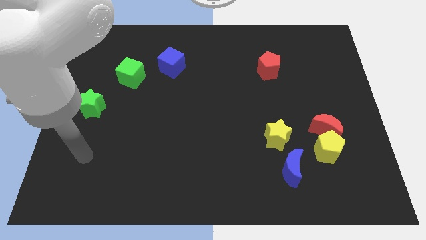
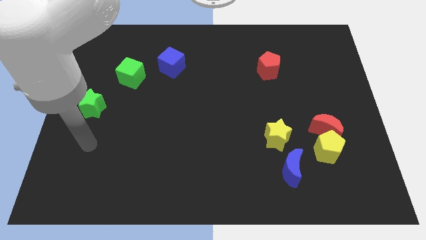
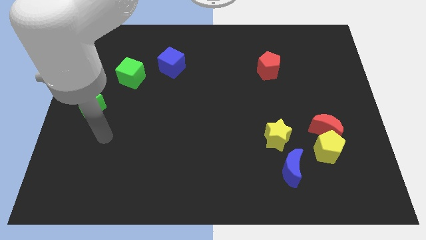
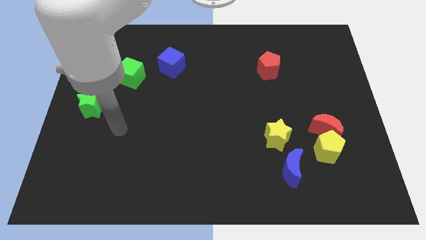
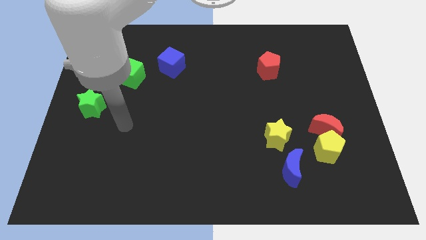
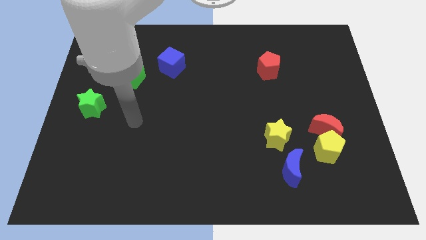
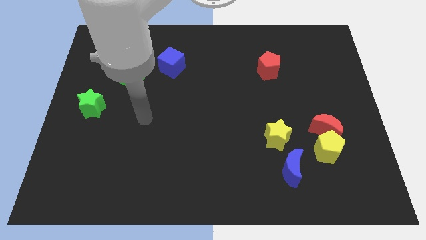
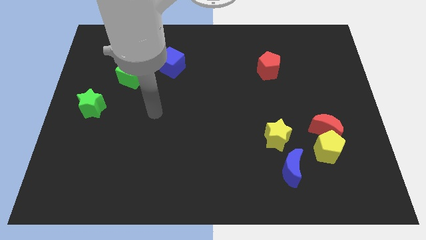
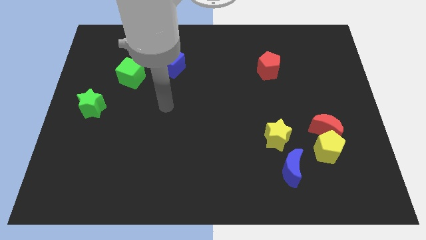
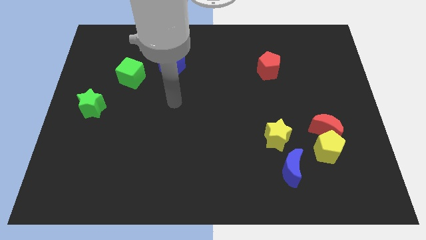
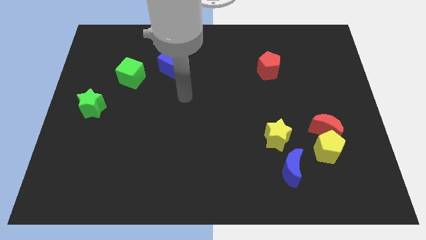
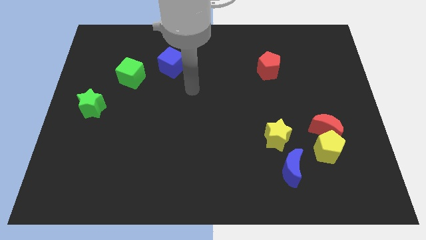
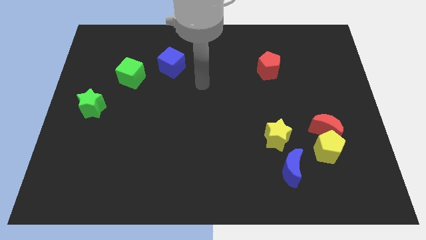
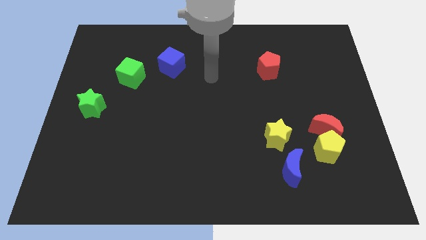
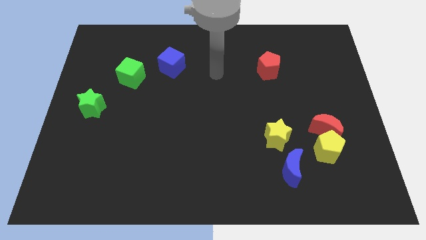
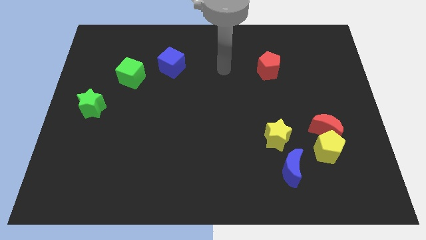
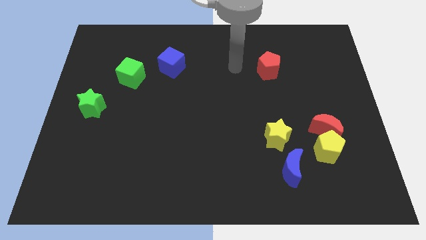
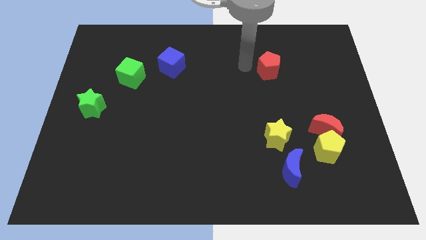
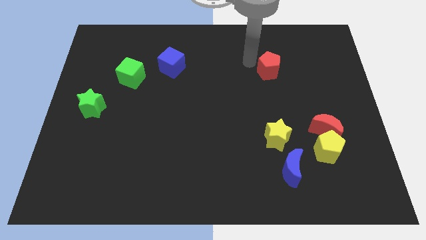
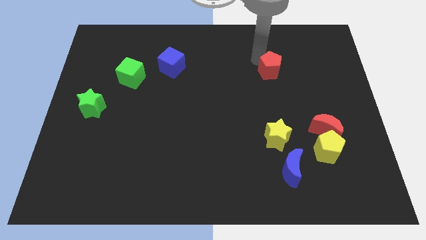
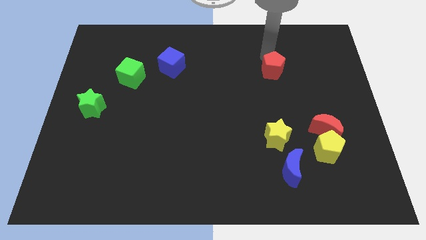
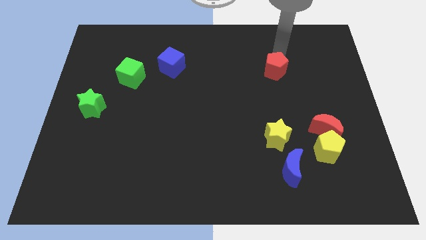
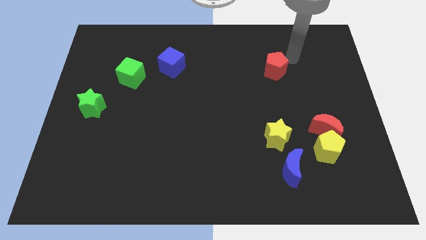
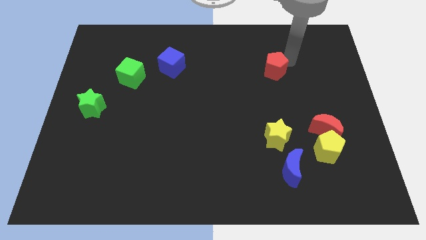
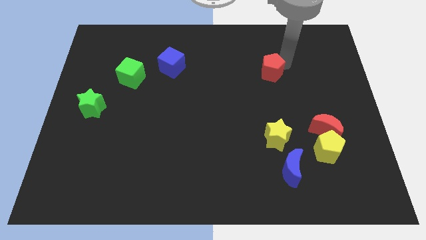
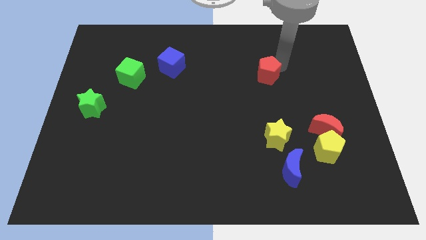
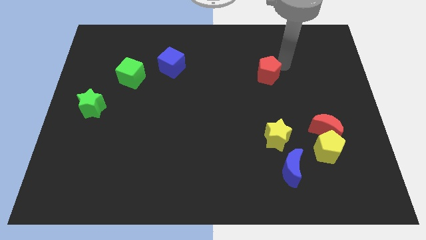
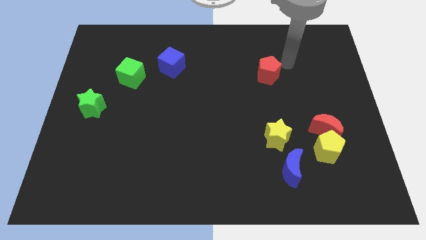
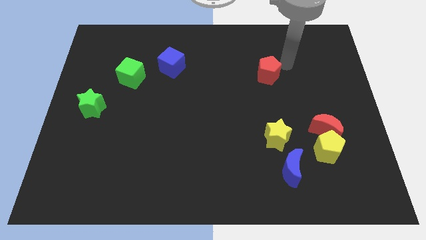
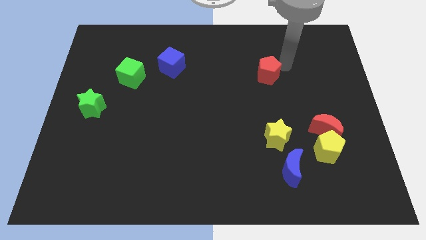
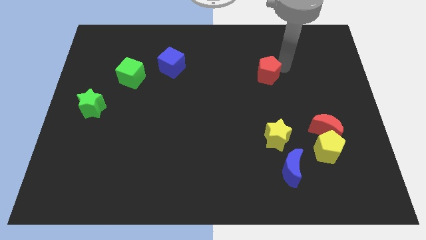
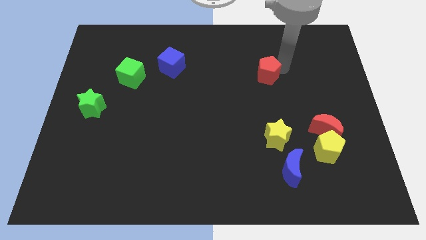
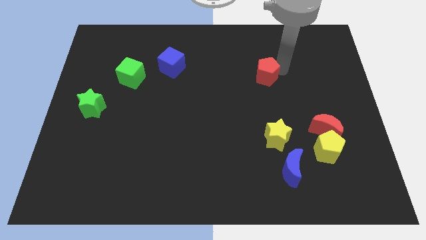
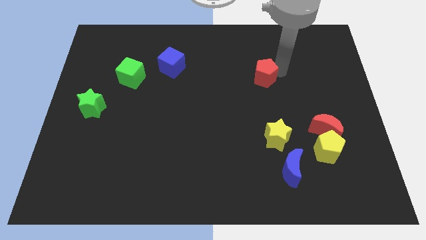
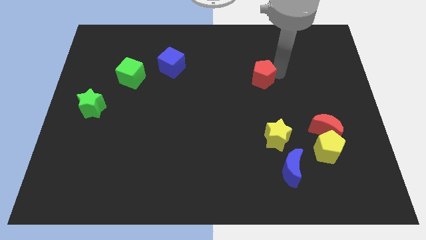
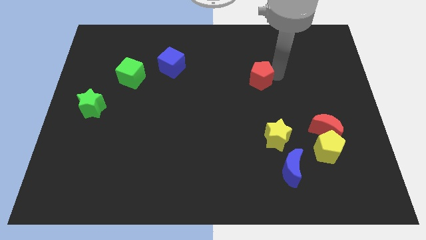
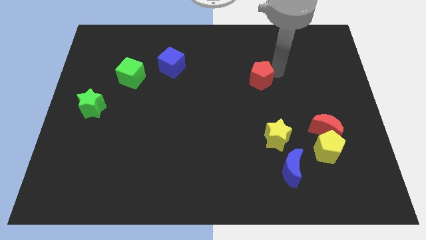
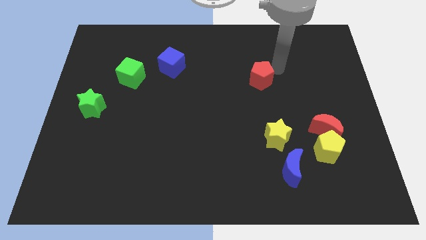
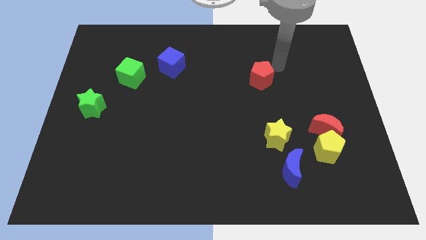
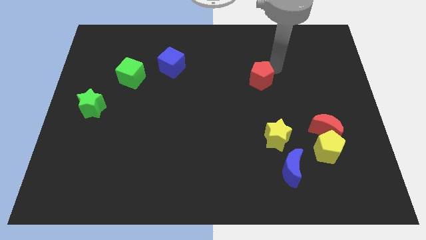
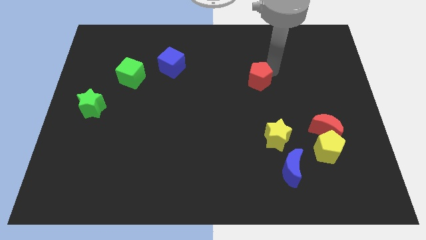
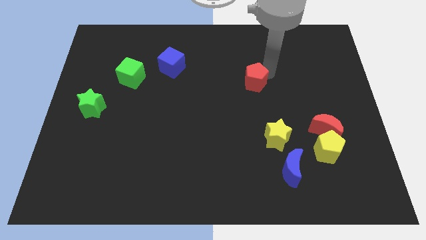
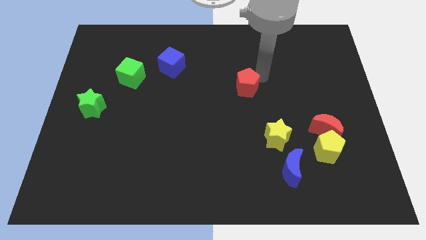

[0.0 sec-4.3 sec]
slide the red pentagon a little bit down and to the left

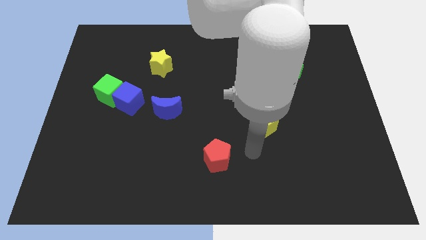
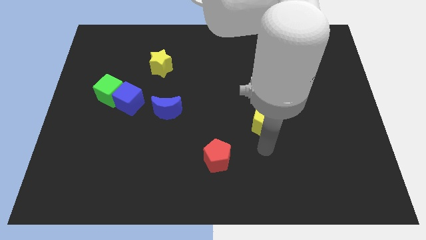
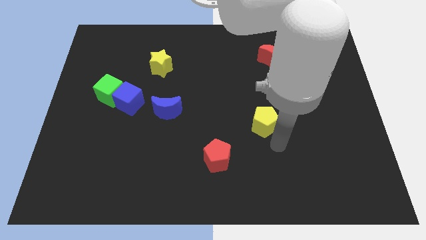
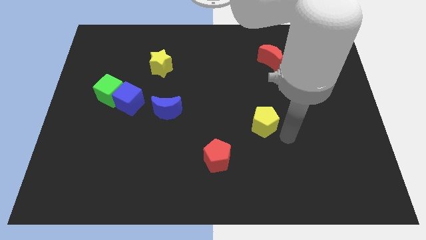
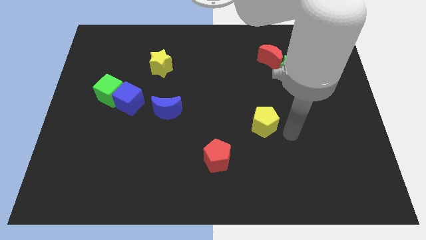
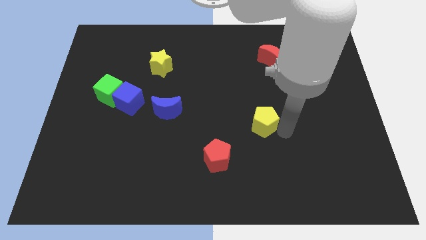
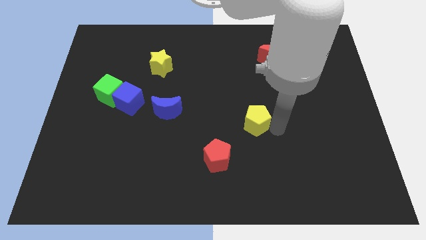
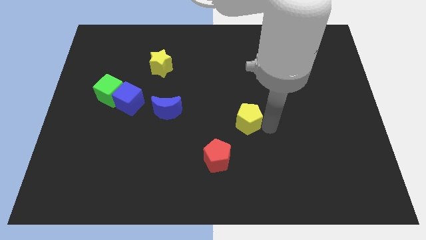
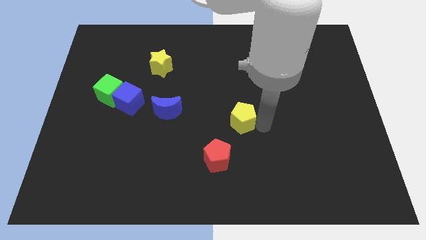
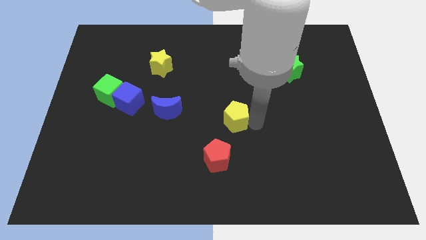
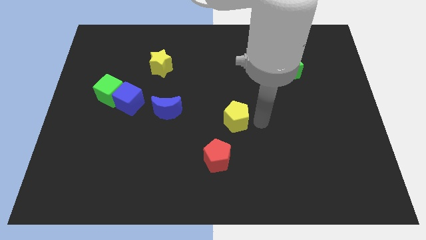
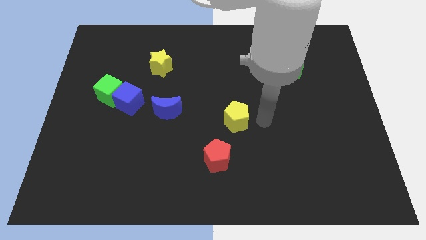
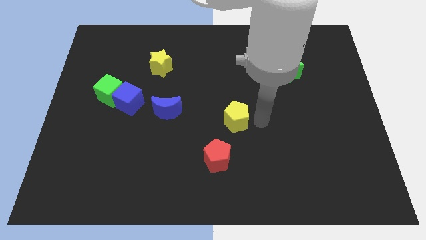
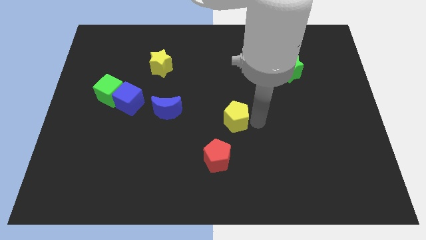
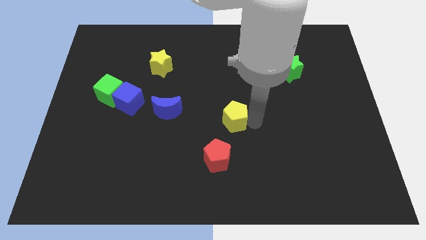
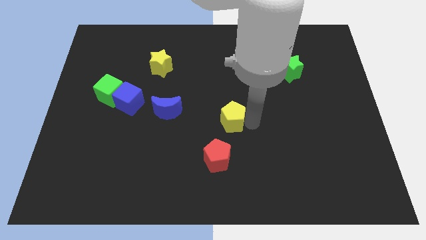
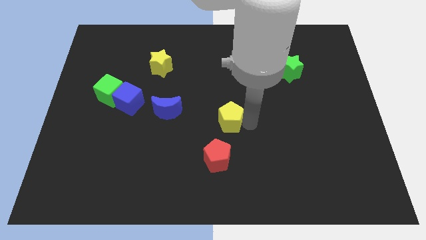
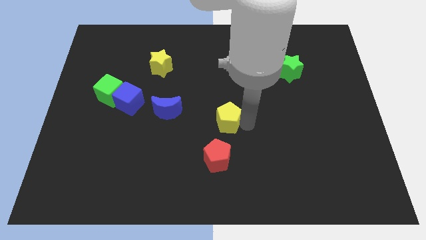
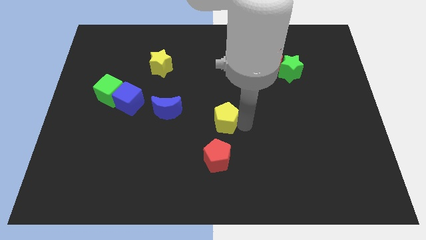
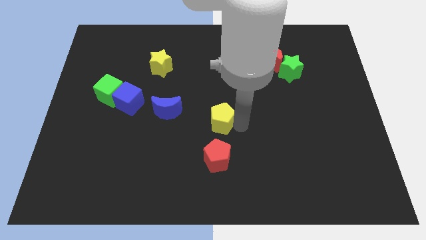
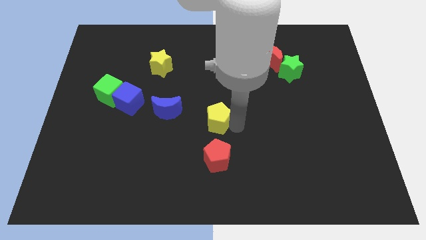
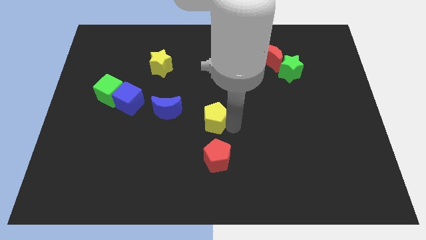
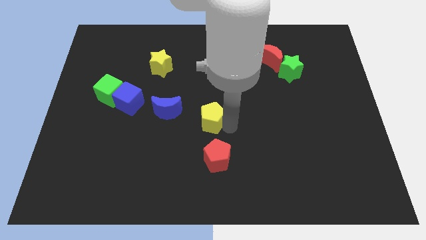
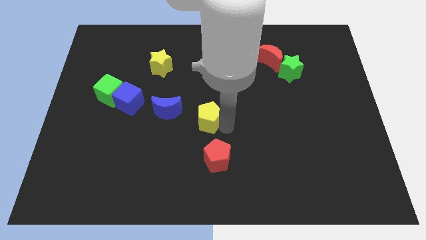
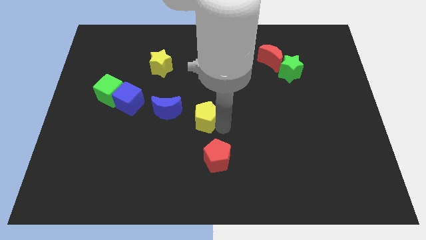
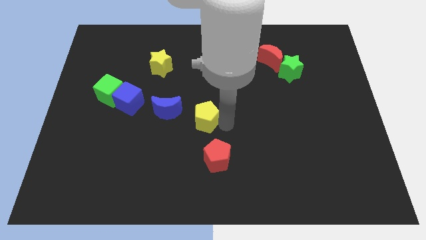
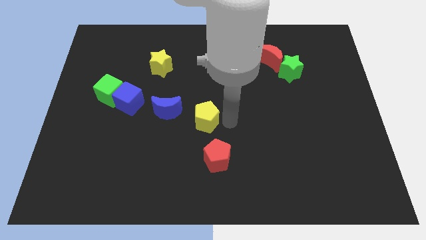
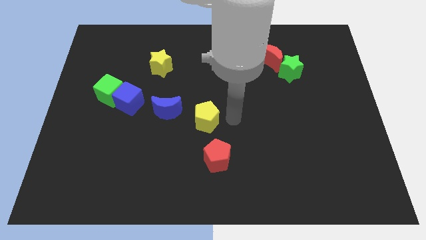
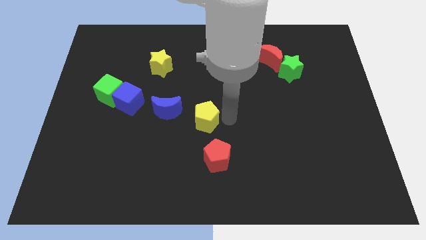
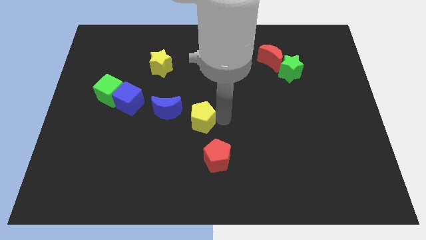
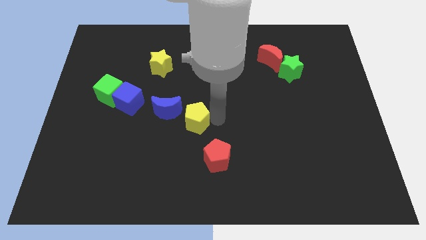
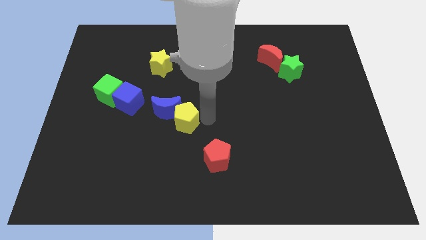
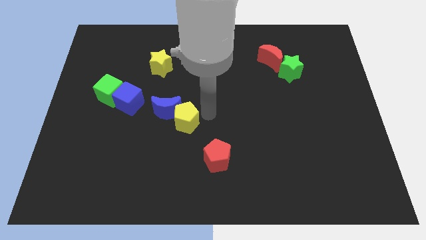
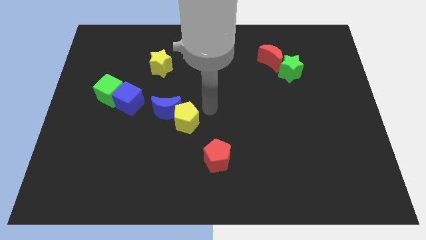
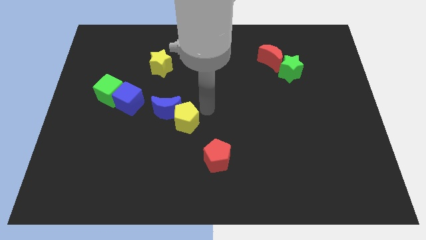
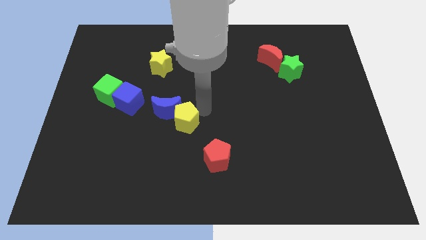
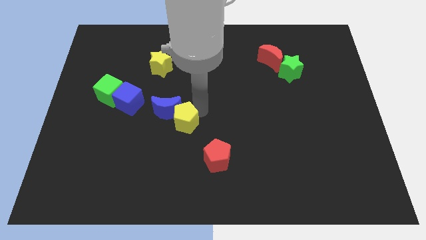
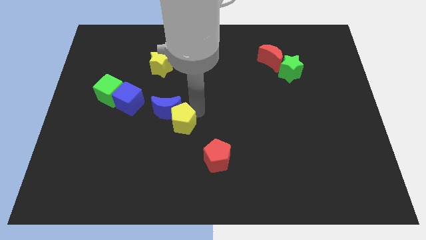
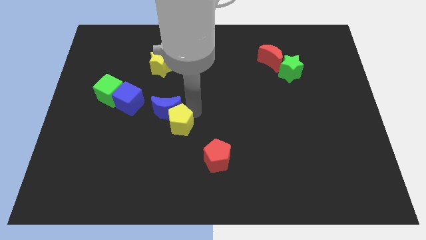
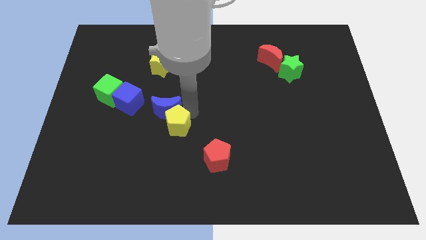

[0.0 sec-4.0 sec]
slide the yellow pentagon to the left
